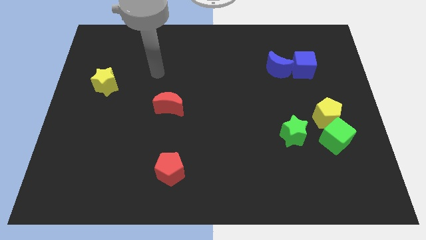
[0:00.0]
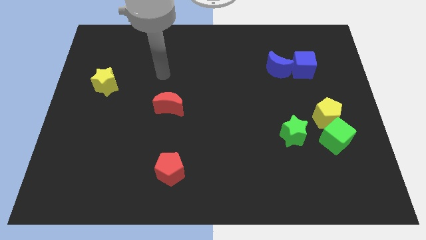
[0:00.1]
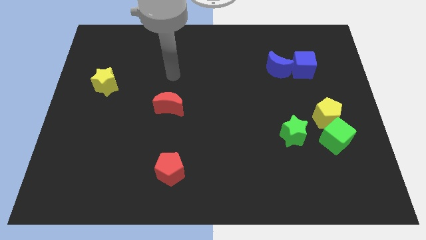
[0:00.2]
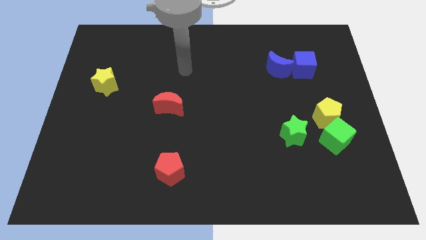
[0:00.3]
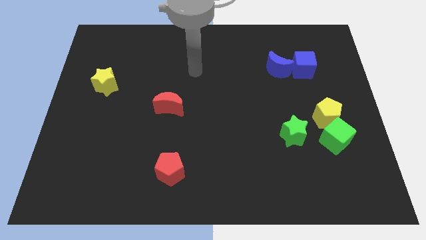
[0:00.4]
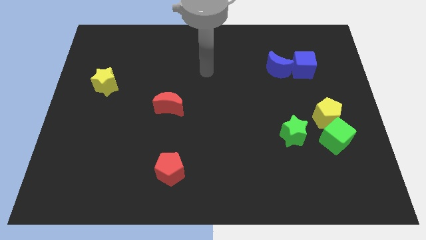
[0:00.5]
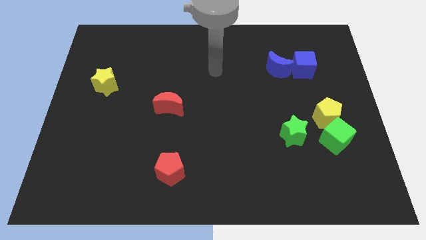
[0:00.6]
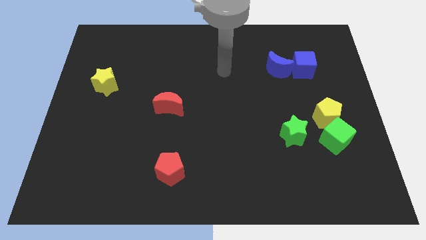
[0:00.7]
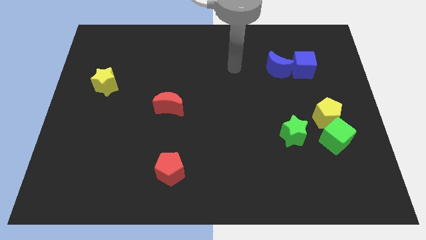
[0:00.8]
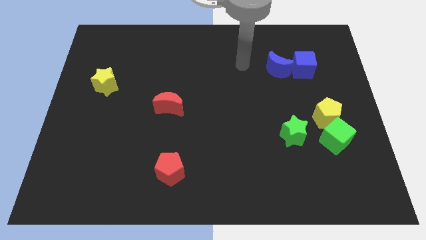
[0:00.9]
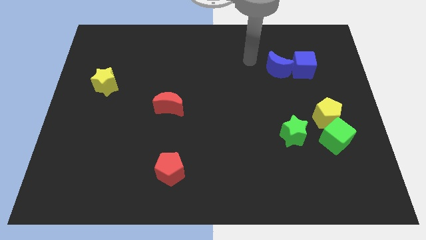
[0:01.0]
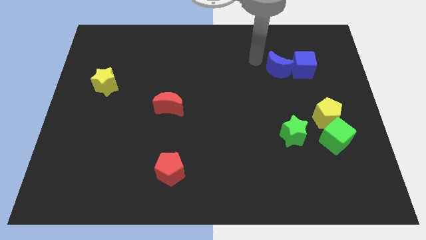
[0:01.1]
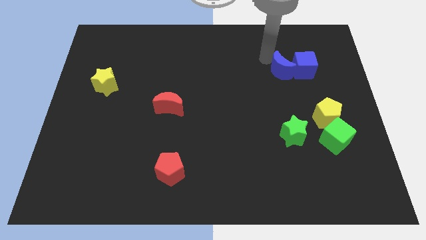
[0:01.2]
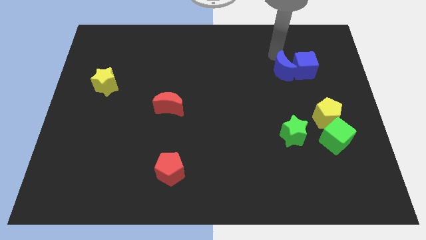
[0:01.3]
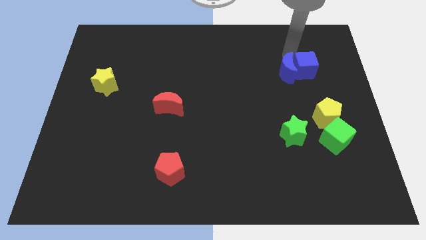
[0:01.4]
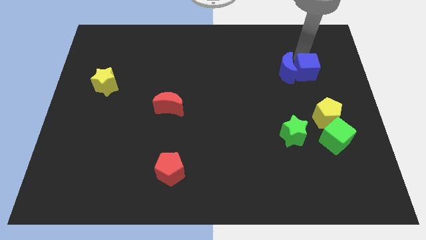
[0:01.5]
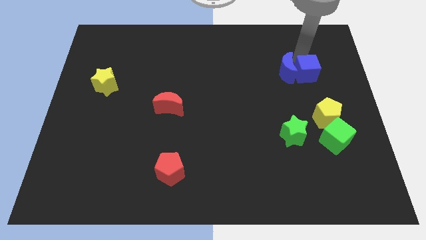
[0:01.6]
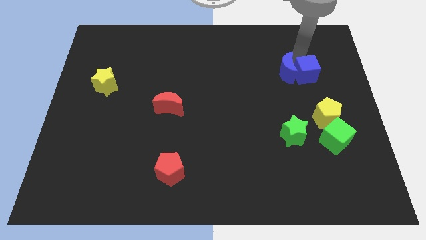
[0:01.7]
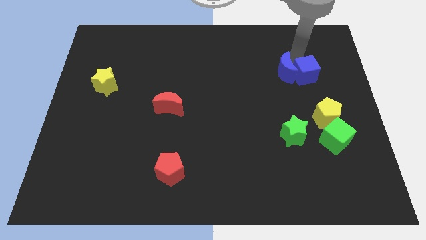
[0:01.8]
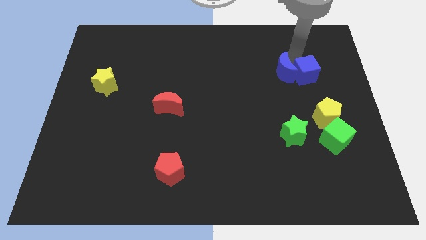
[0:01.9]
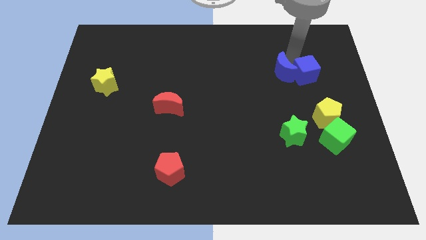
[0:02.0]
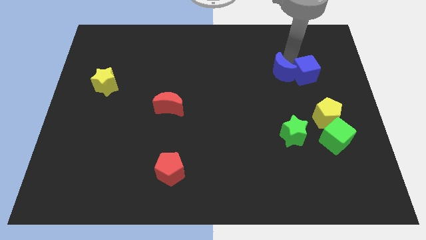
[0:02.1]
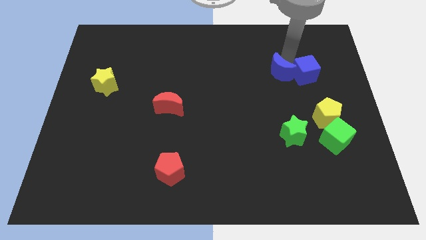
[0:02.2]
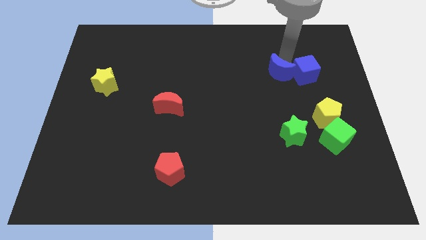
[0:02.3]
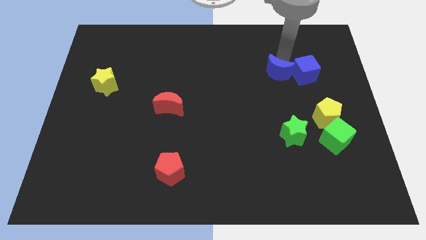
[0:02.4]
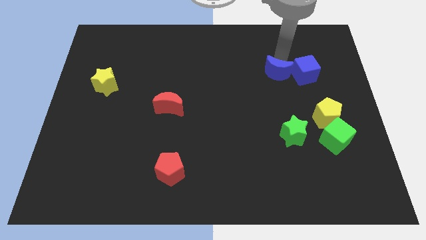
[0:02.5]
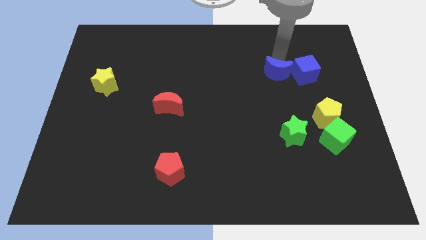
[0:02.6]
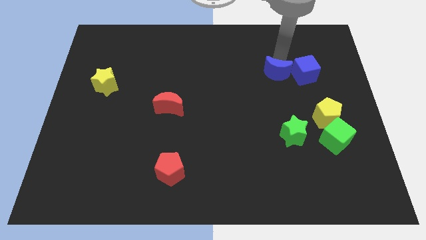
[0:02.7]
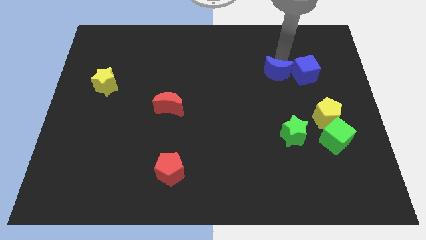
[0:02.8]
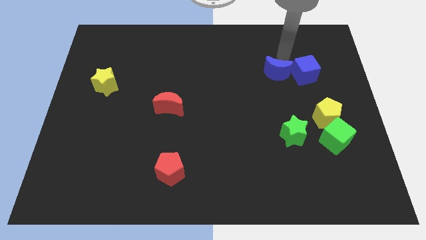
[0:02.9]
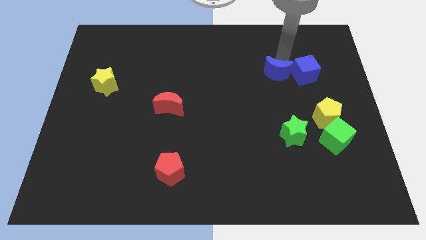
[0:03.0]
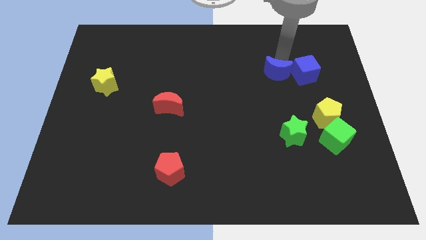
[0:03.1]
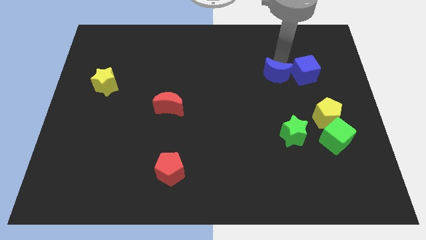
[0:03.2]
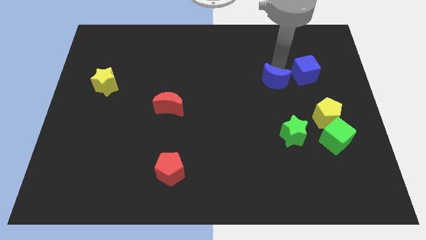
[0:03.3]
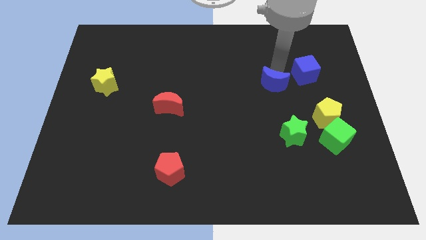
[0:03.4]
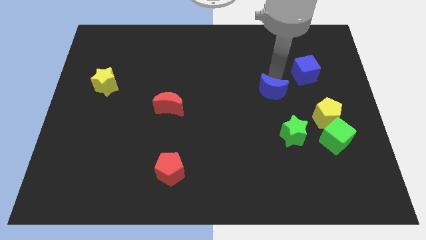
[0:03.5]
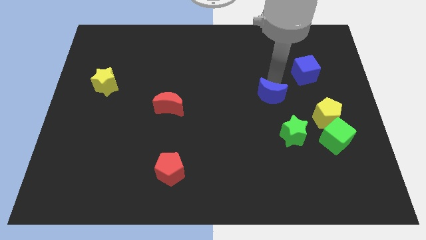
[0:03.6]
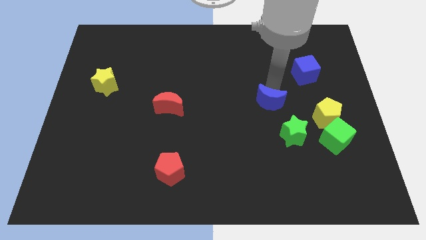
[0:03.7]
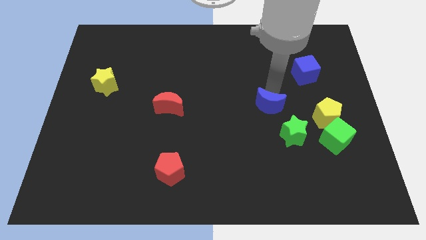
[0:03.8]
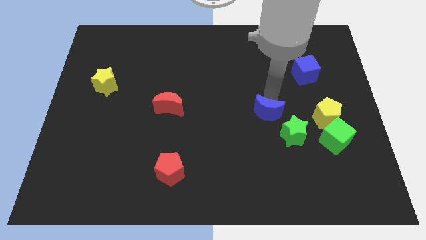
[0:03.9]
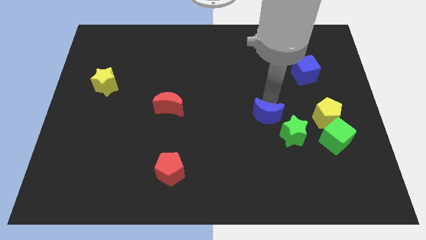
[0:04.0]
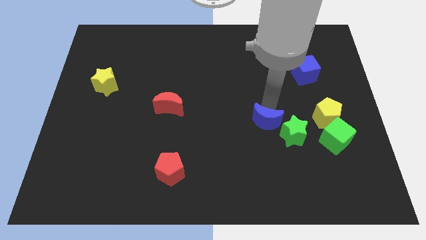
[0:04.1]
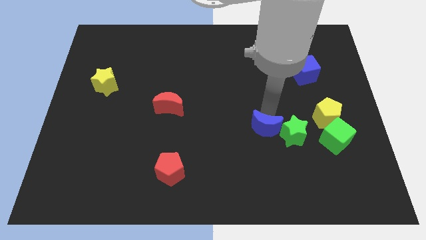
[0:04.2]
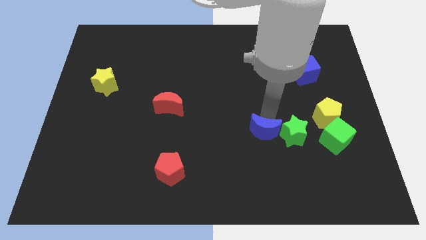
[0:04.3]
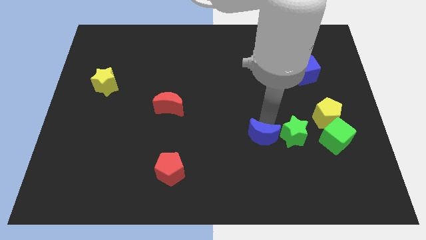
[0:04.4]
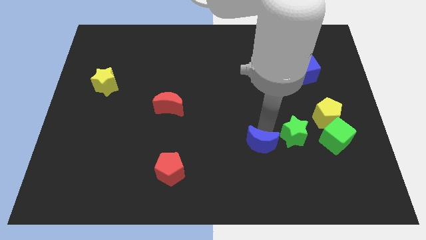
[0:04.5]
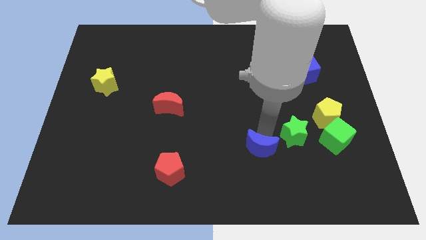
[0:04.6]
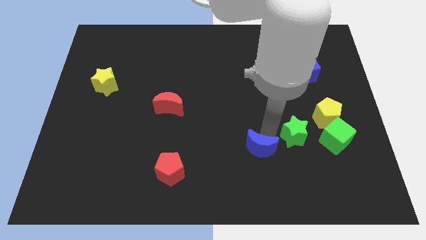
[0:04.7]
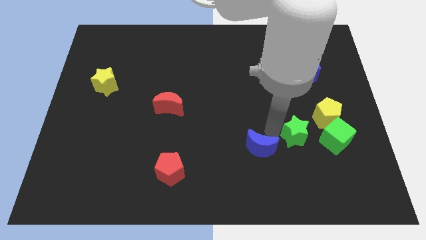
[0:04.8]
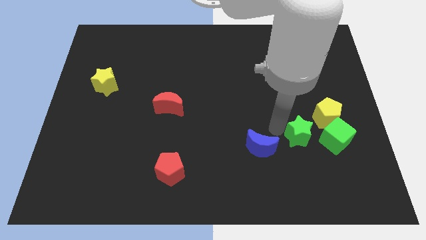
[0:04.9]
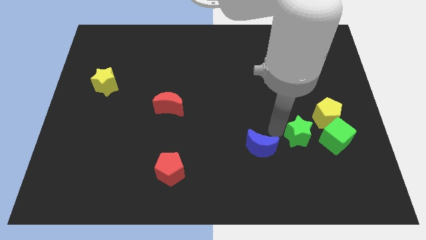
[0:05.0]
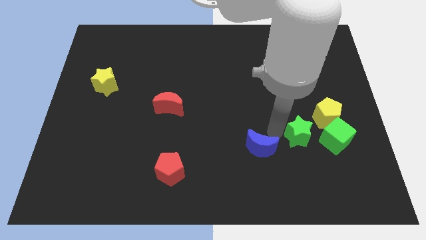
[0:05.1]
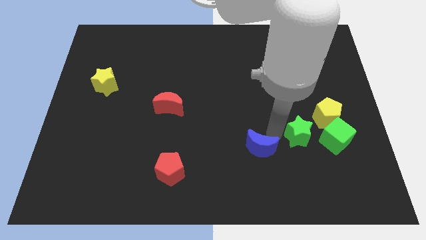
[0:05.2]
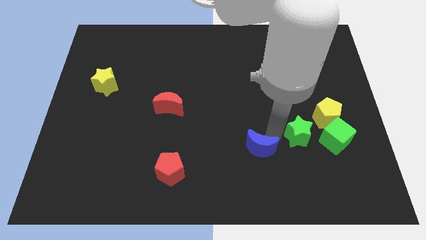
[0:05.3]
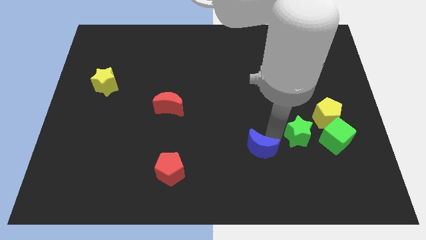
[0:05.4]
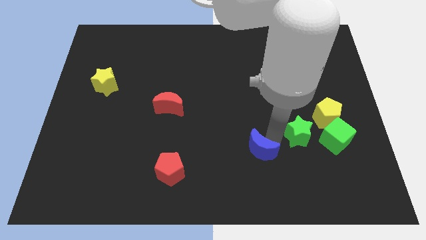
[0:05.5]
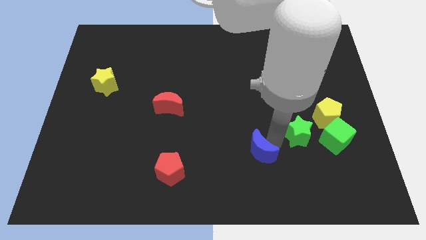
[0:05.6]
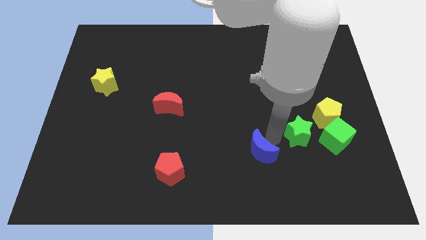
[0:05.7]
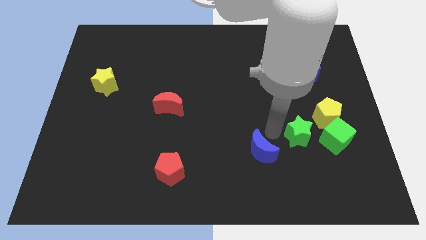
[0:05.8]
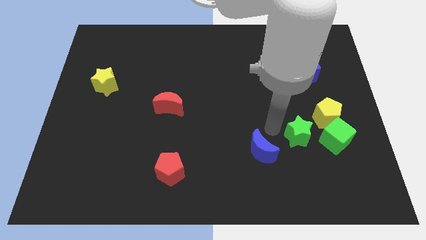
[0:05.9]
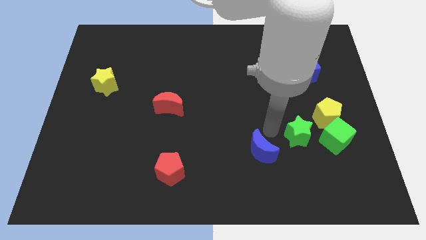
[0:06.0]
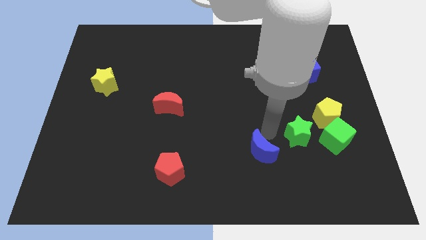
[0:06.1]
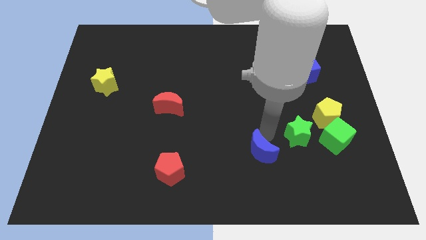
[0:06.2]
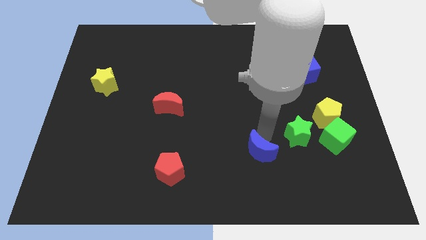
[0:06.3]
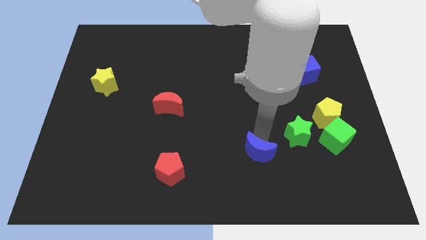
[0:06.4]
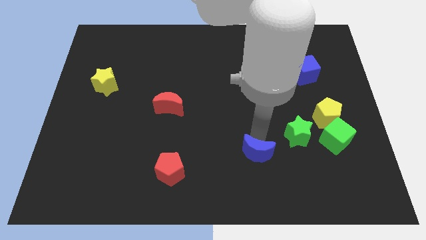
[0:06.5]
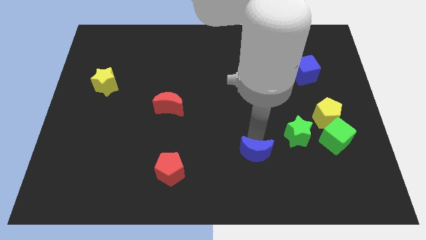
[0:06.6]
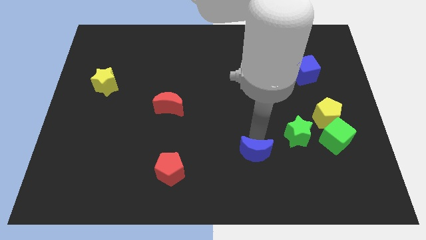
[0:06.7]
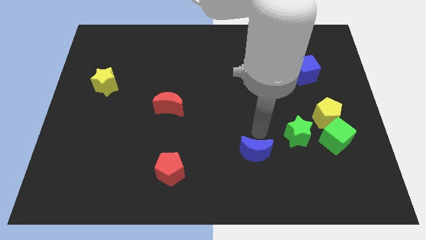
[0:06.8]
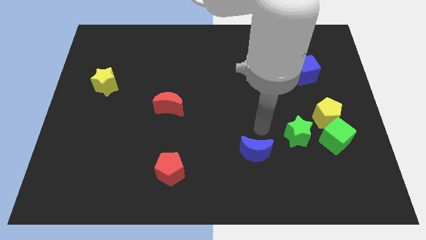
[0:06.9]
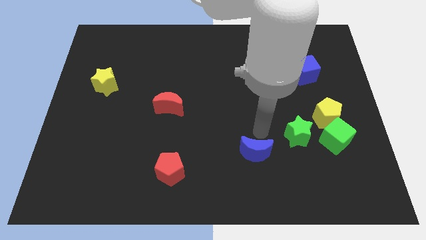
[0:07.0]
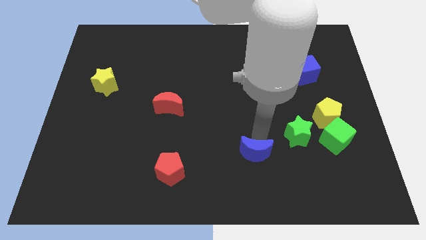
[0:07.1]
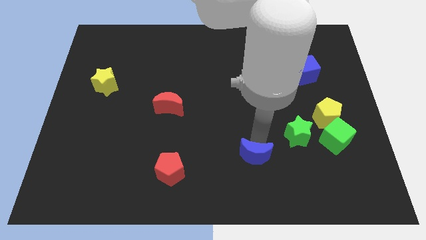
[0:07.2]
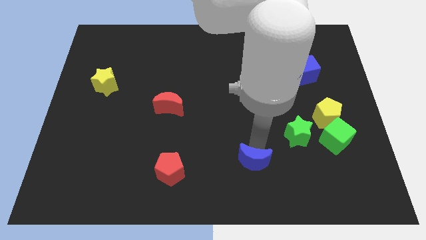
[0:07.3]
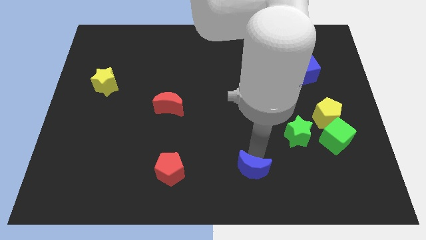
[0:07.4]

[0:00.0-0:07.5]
push the blue moon to the bottom side
